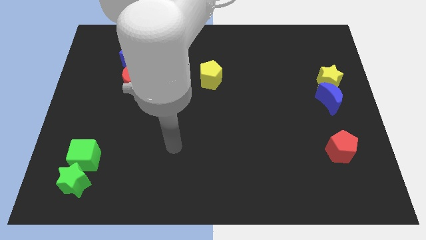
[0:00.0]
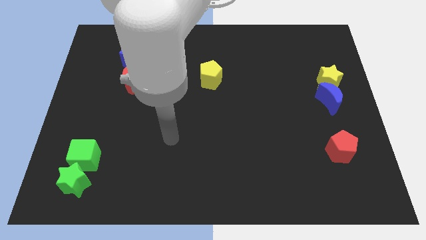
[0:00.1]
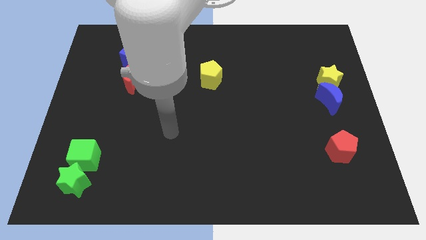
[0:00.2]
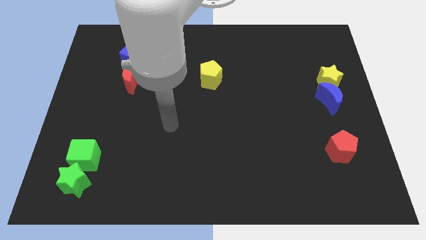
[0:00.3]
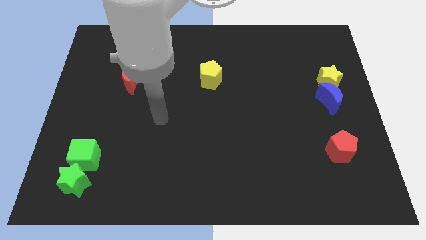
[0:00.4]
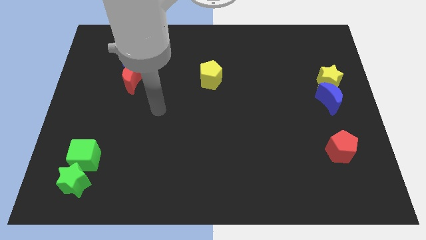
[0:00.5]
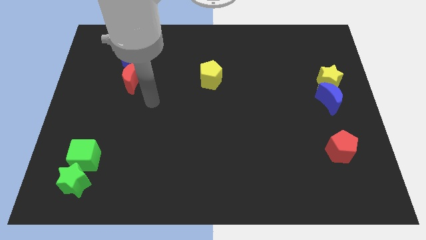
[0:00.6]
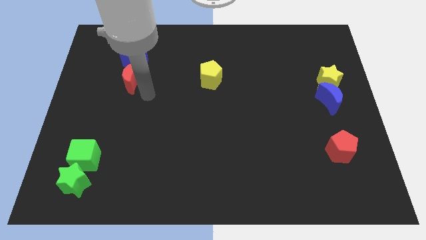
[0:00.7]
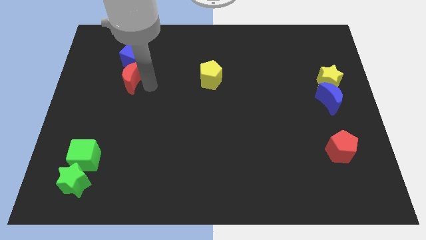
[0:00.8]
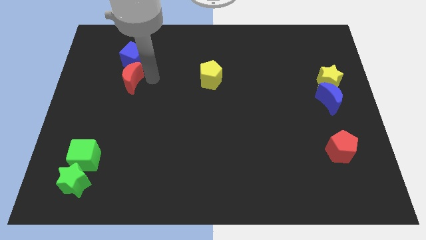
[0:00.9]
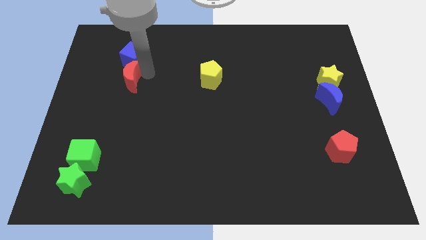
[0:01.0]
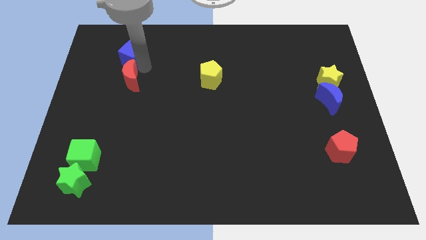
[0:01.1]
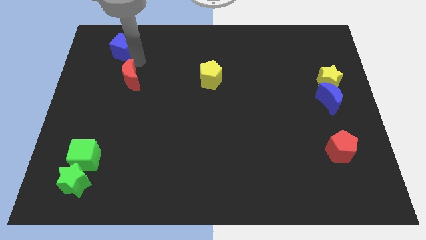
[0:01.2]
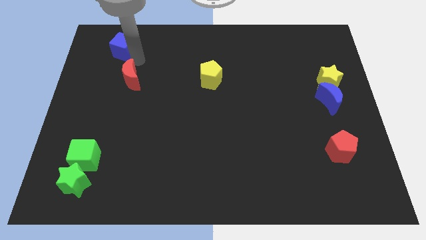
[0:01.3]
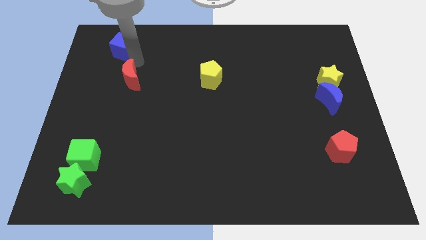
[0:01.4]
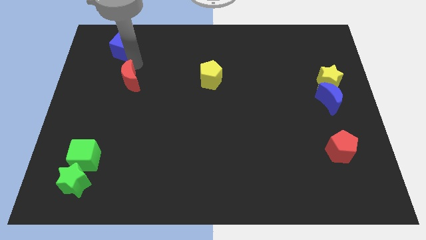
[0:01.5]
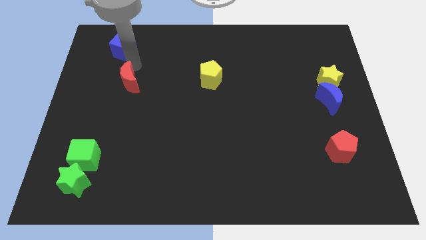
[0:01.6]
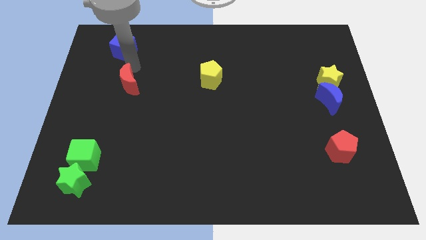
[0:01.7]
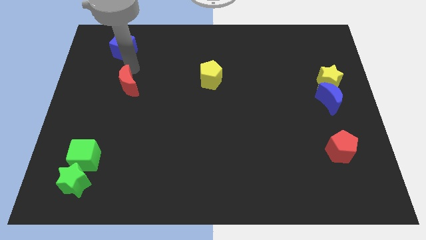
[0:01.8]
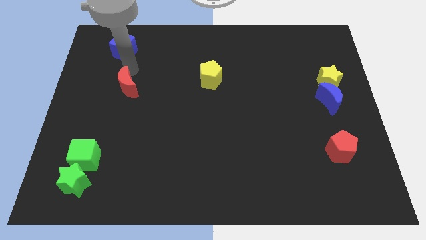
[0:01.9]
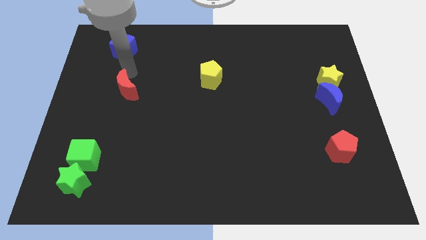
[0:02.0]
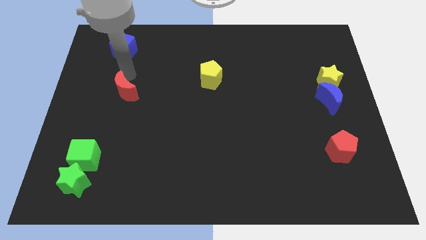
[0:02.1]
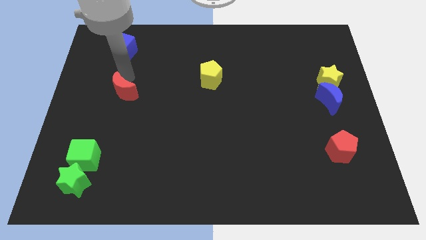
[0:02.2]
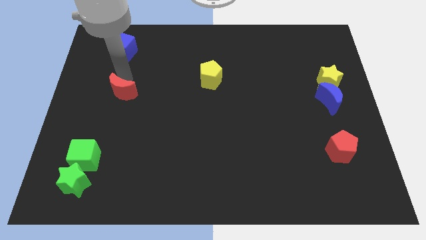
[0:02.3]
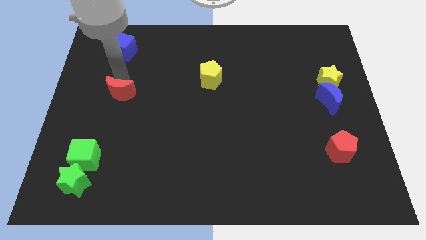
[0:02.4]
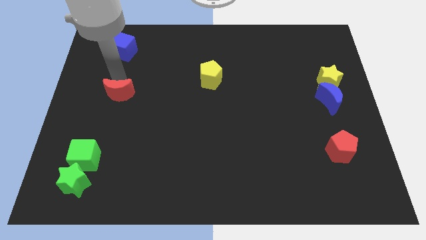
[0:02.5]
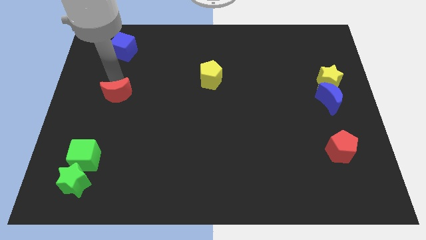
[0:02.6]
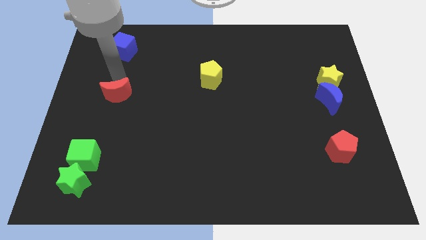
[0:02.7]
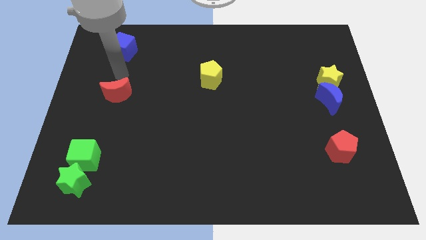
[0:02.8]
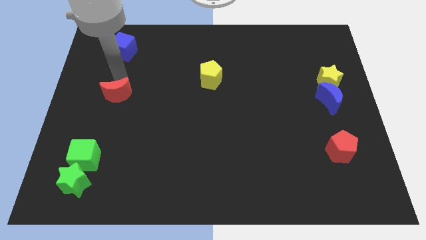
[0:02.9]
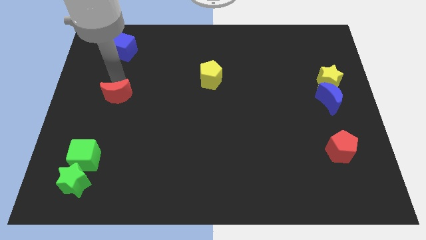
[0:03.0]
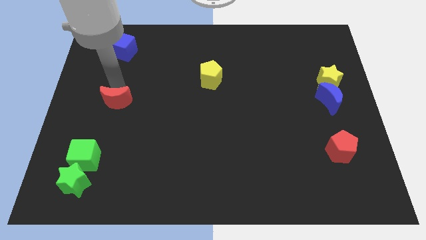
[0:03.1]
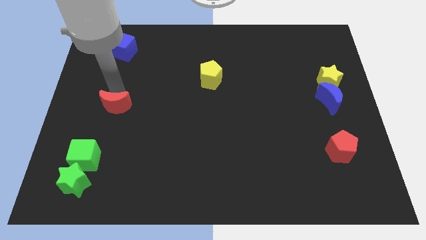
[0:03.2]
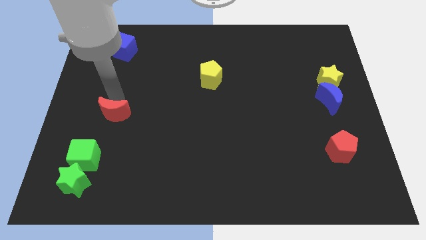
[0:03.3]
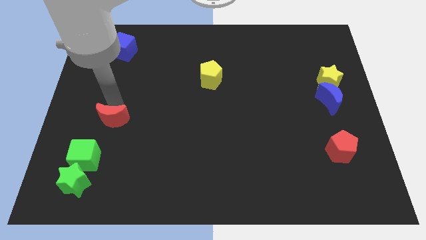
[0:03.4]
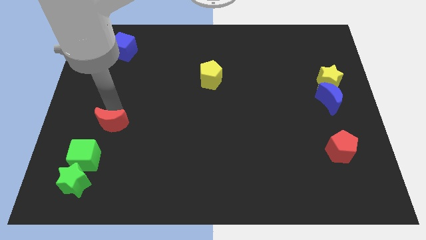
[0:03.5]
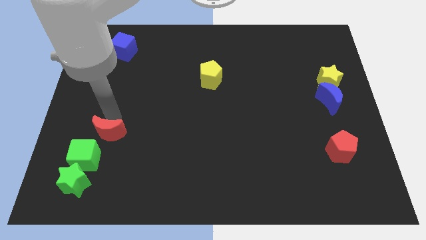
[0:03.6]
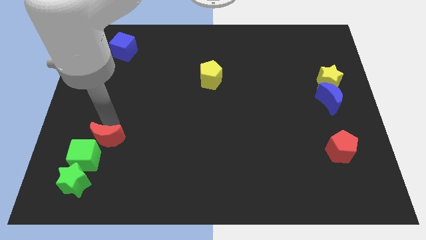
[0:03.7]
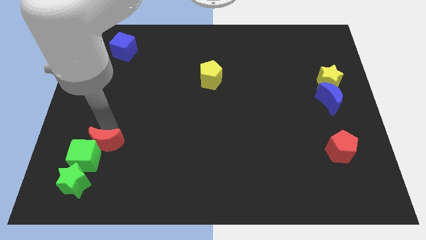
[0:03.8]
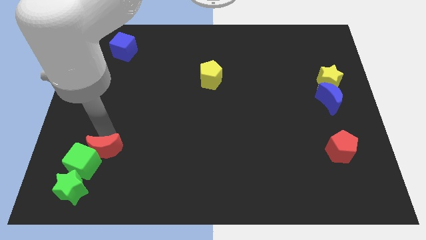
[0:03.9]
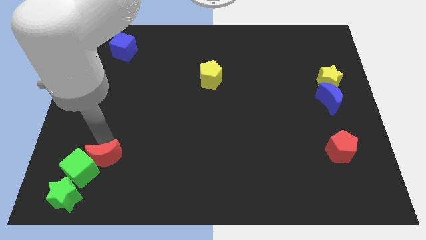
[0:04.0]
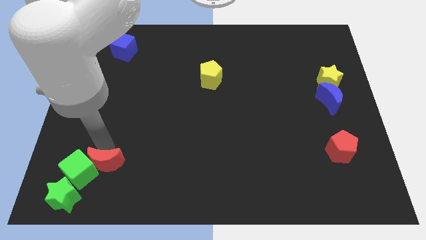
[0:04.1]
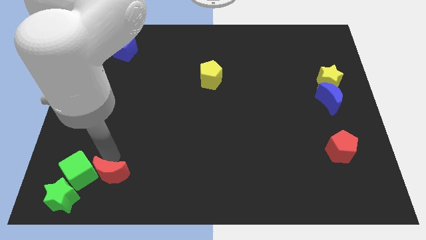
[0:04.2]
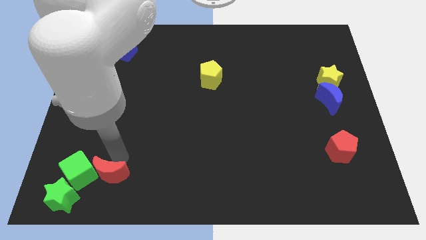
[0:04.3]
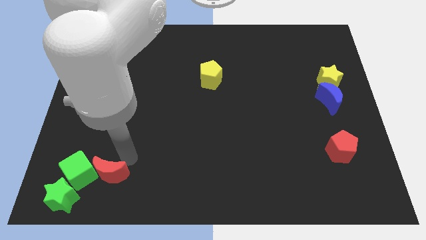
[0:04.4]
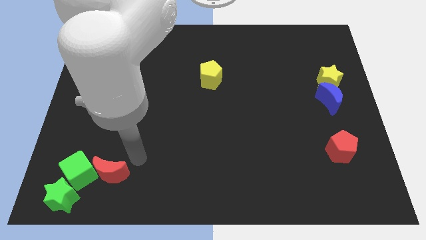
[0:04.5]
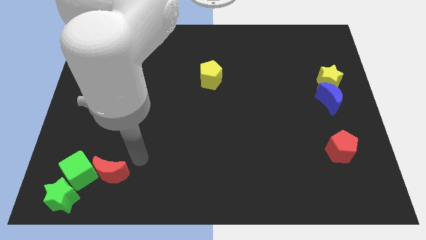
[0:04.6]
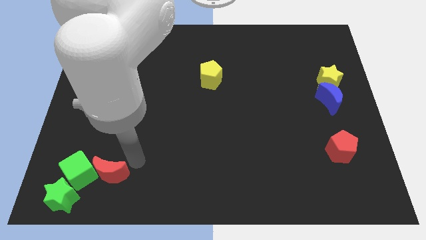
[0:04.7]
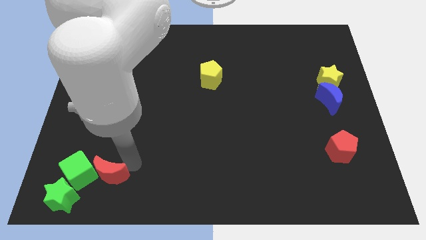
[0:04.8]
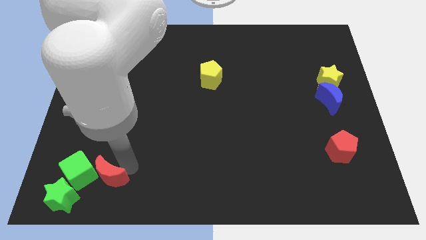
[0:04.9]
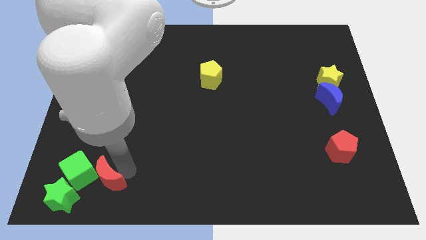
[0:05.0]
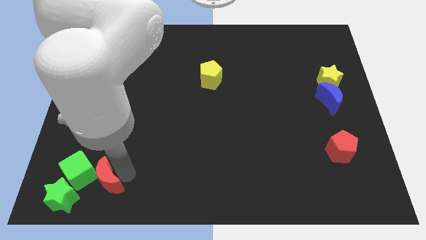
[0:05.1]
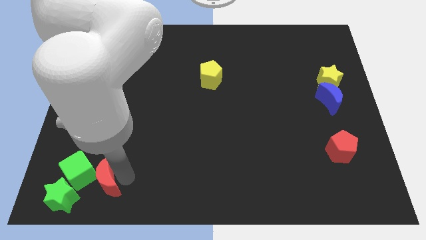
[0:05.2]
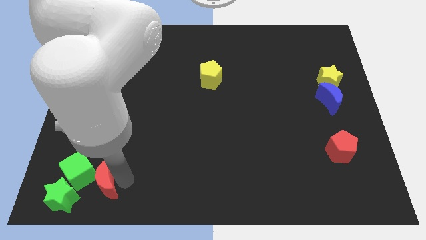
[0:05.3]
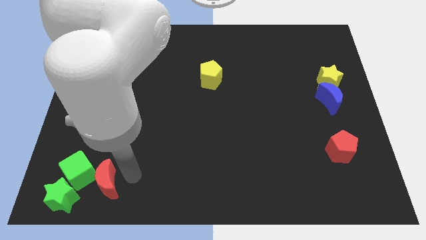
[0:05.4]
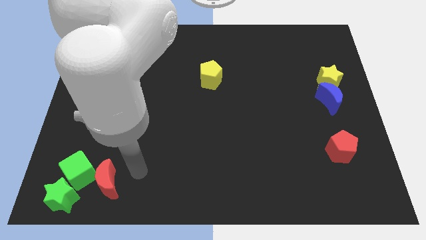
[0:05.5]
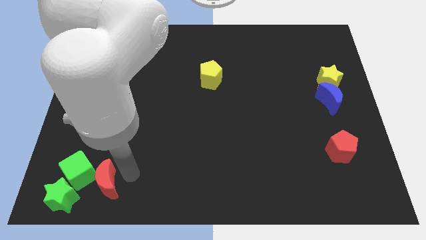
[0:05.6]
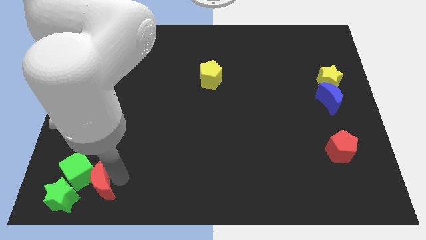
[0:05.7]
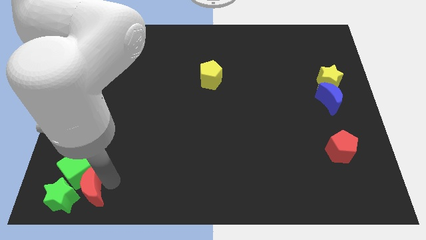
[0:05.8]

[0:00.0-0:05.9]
move the red moon close to the green star

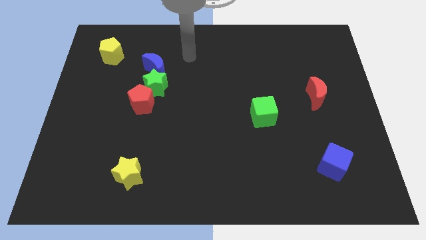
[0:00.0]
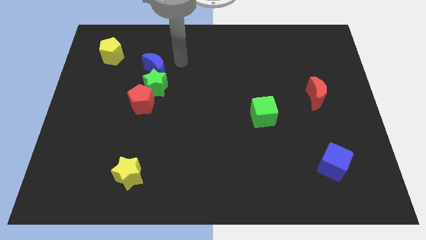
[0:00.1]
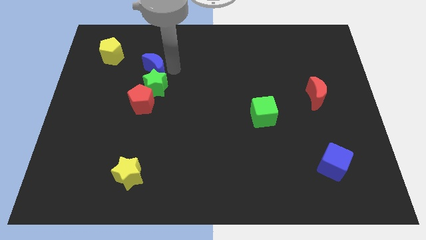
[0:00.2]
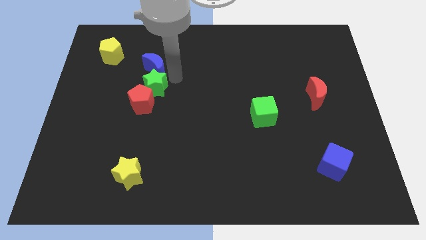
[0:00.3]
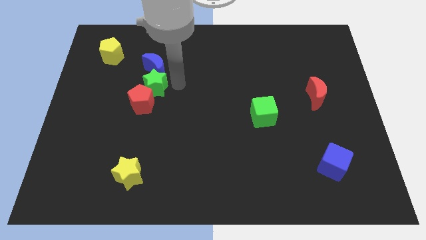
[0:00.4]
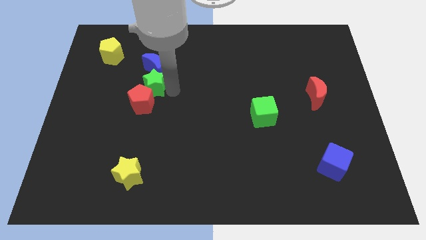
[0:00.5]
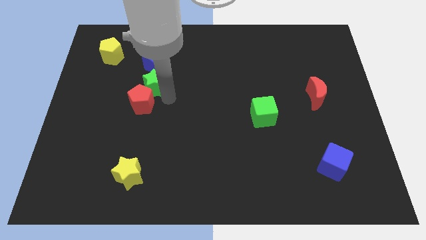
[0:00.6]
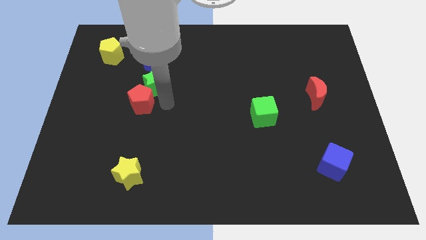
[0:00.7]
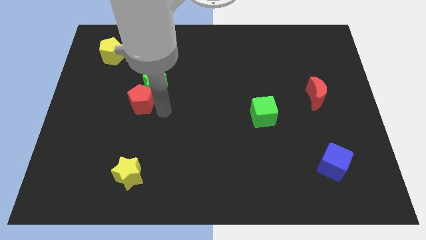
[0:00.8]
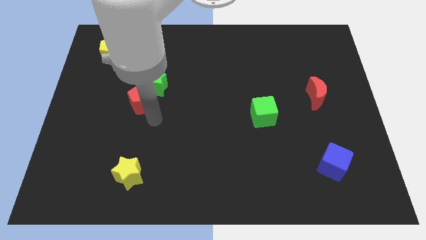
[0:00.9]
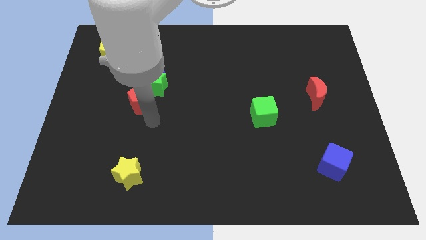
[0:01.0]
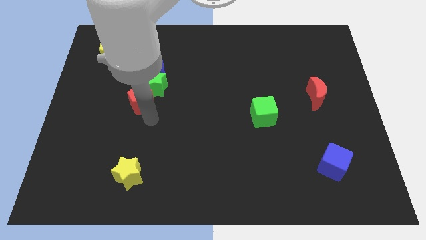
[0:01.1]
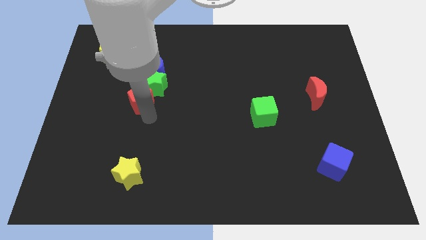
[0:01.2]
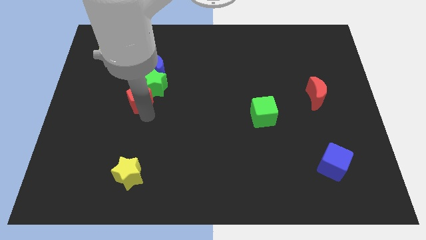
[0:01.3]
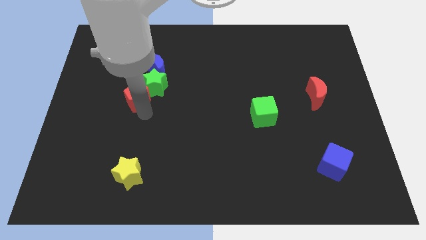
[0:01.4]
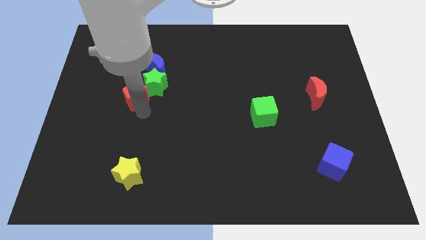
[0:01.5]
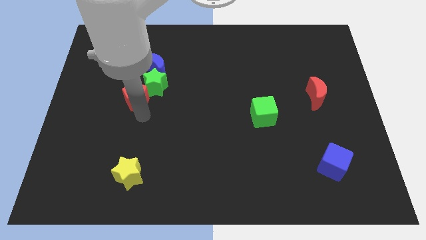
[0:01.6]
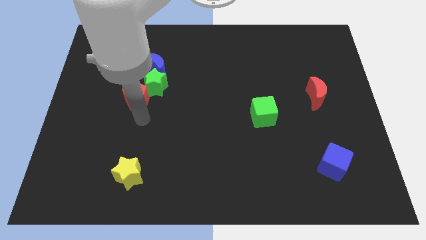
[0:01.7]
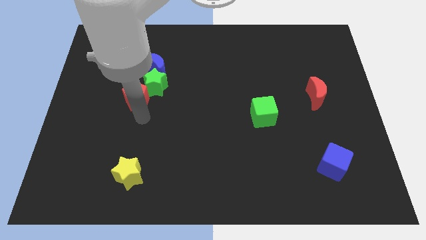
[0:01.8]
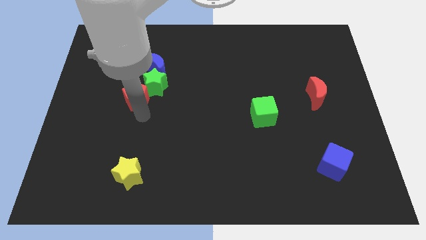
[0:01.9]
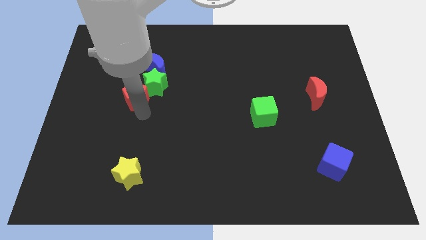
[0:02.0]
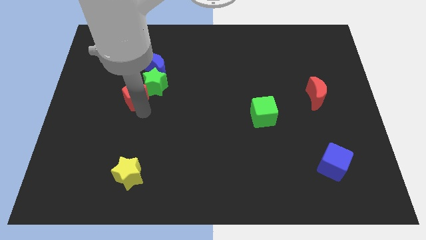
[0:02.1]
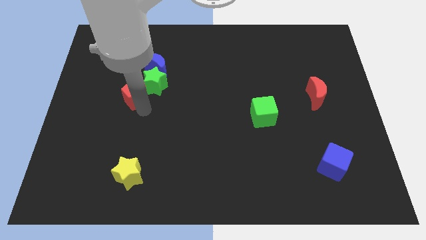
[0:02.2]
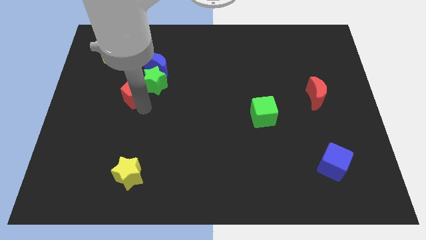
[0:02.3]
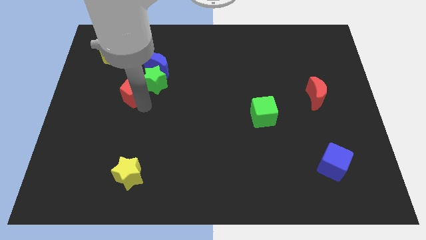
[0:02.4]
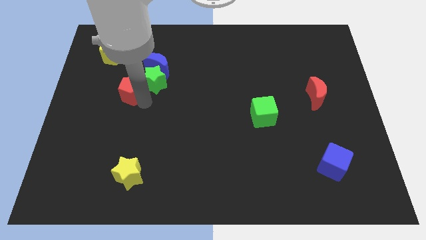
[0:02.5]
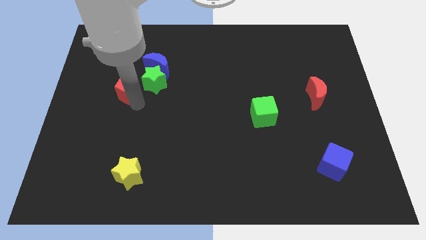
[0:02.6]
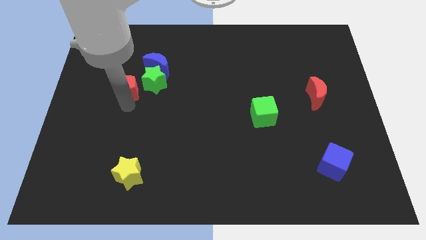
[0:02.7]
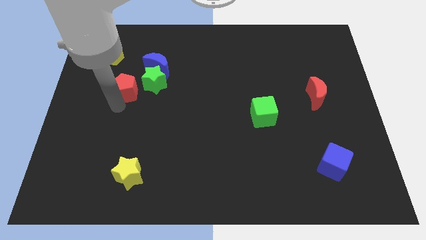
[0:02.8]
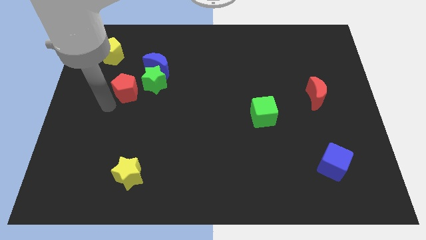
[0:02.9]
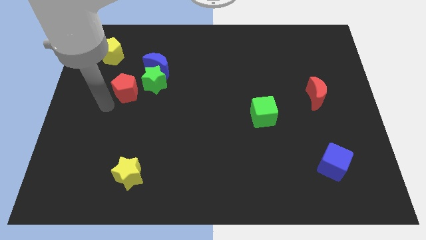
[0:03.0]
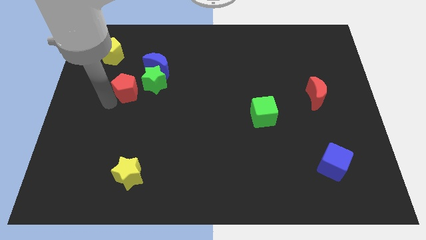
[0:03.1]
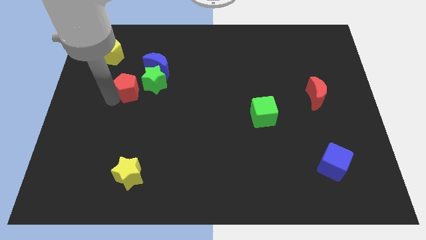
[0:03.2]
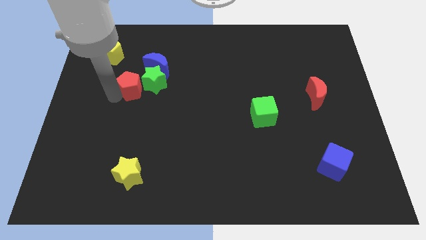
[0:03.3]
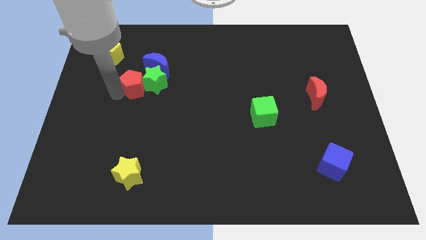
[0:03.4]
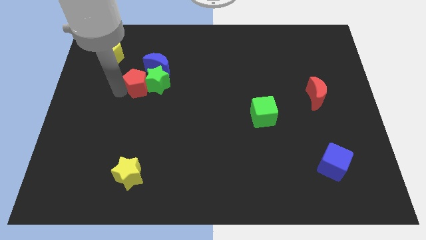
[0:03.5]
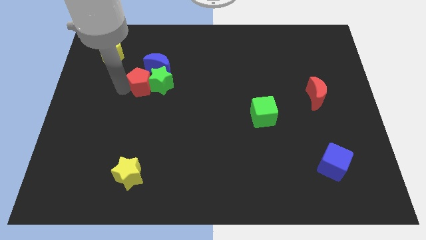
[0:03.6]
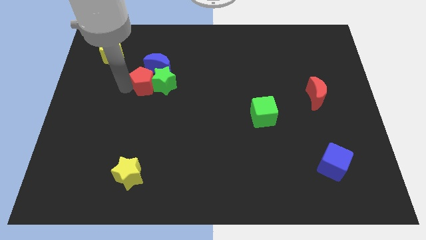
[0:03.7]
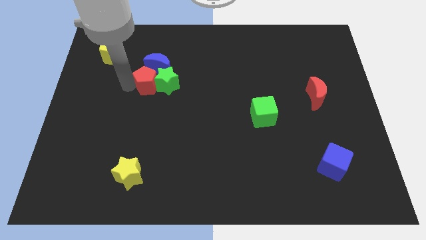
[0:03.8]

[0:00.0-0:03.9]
slide the red pentagon close to the blue moon
